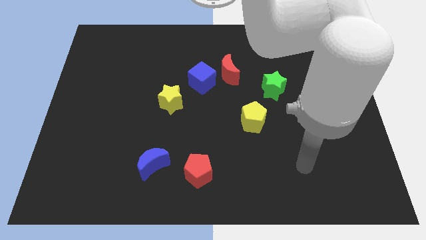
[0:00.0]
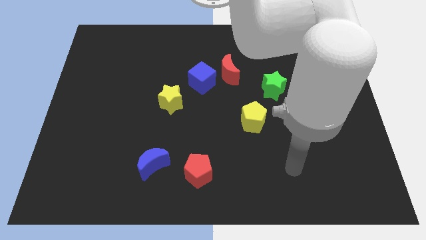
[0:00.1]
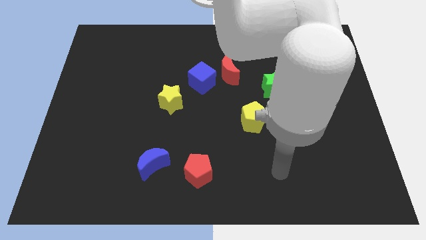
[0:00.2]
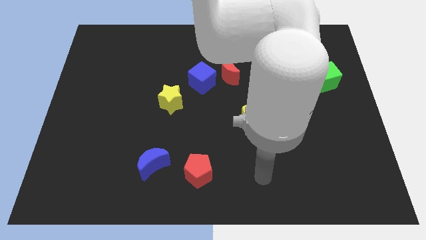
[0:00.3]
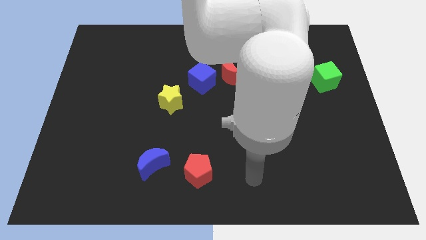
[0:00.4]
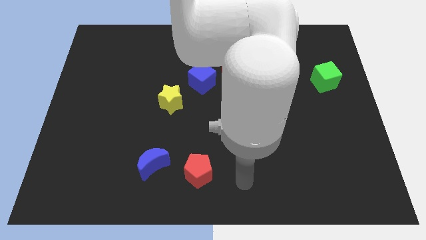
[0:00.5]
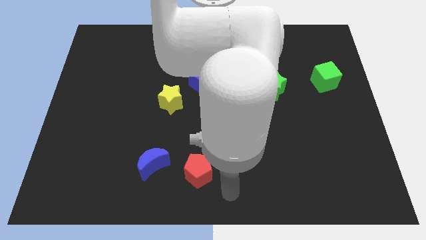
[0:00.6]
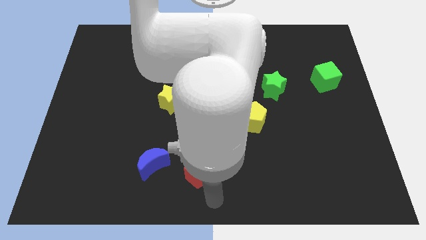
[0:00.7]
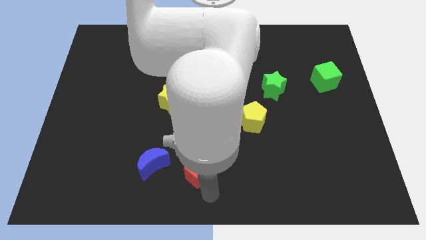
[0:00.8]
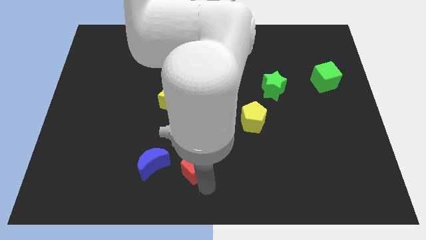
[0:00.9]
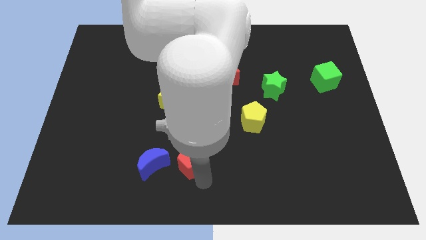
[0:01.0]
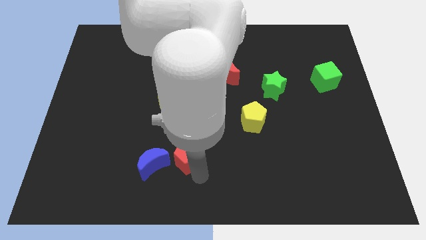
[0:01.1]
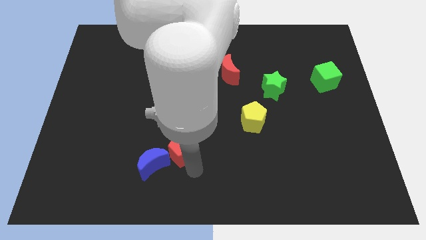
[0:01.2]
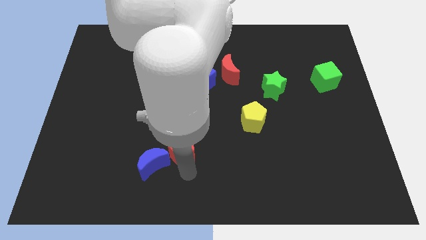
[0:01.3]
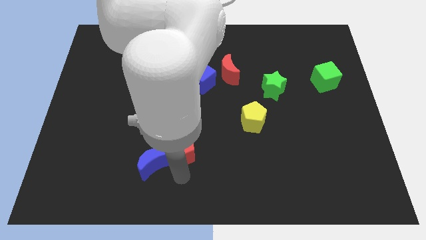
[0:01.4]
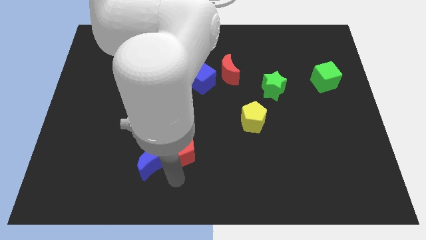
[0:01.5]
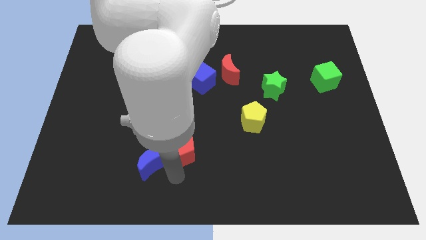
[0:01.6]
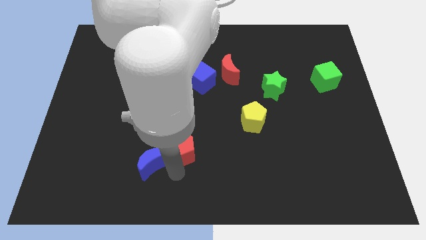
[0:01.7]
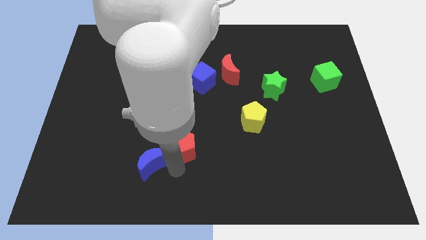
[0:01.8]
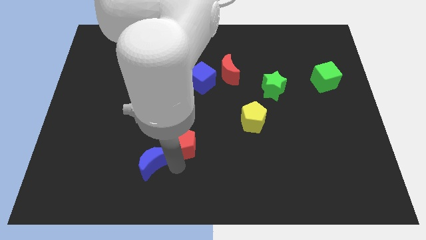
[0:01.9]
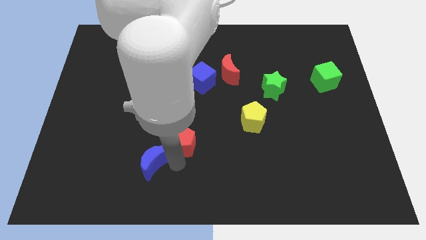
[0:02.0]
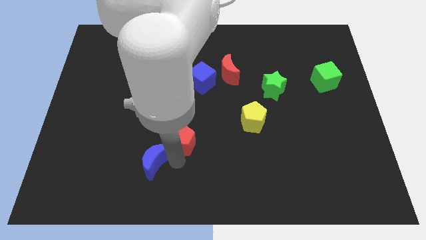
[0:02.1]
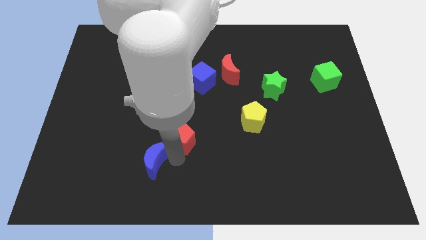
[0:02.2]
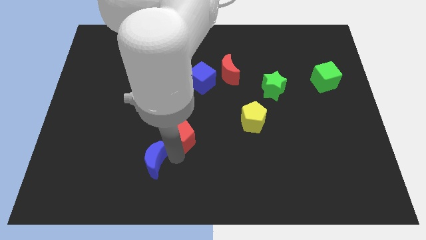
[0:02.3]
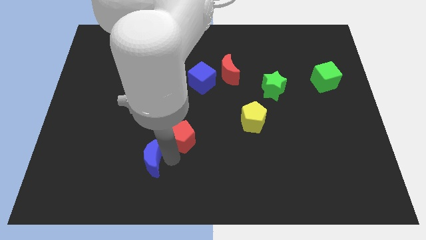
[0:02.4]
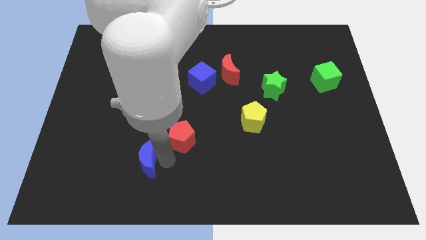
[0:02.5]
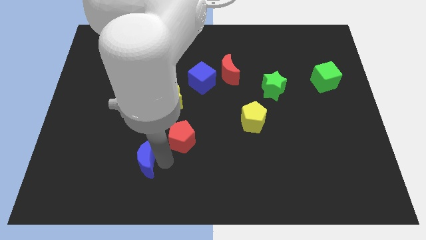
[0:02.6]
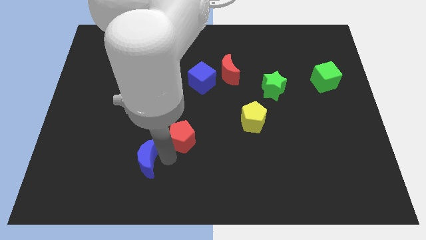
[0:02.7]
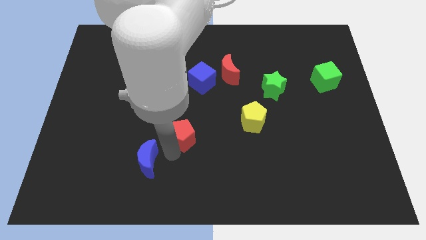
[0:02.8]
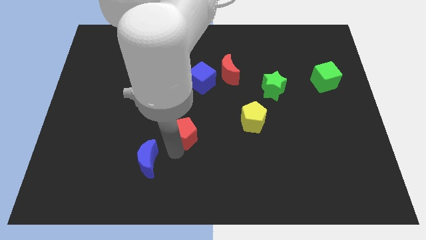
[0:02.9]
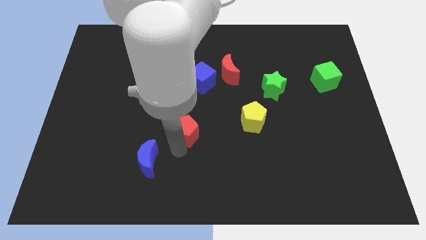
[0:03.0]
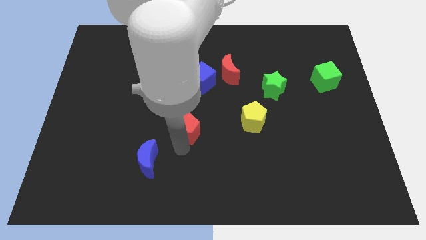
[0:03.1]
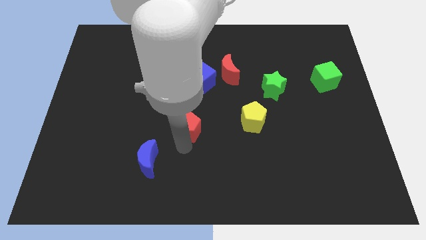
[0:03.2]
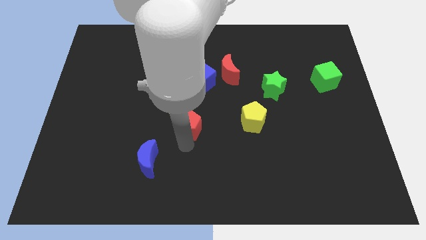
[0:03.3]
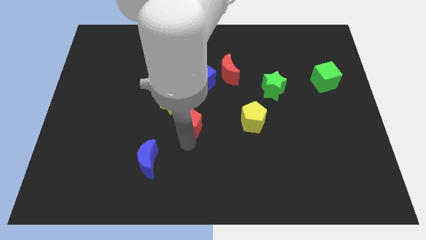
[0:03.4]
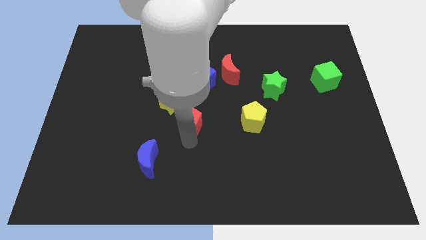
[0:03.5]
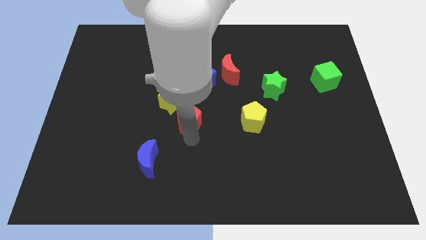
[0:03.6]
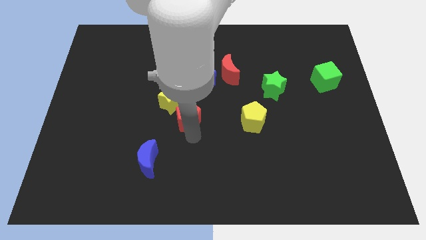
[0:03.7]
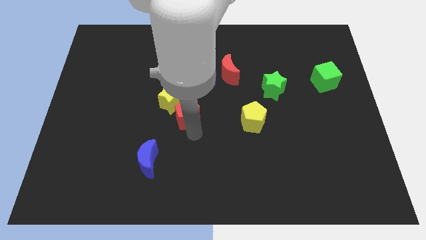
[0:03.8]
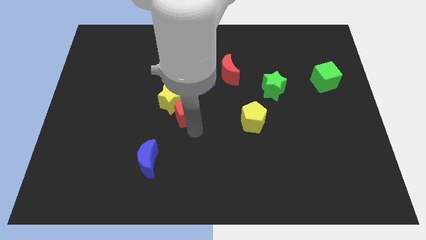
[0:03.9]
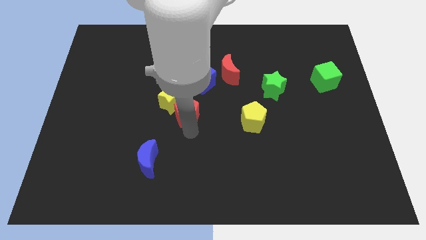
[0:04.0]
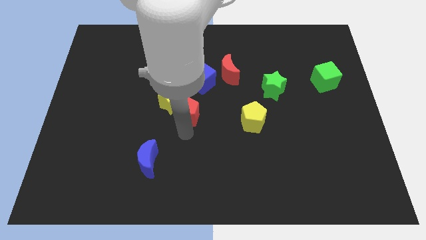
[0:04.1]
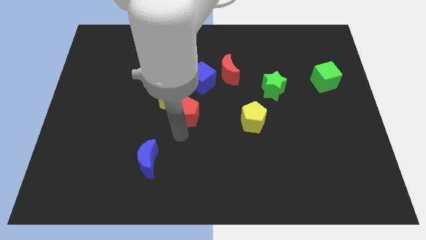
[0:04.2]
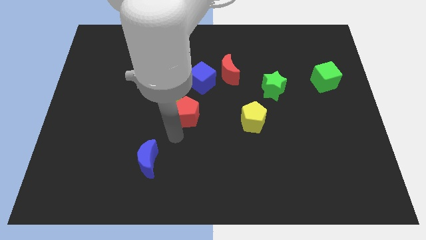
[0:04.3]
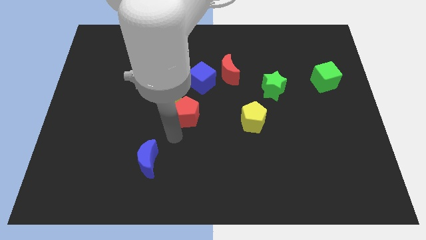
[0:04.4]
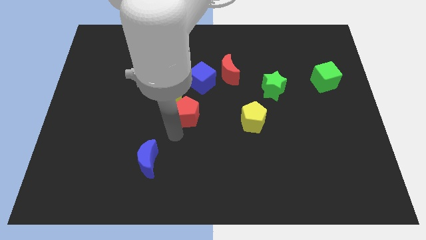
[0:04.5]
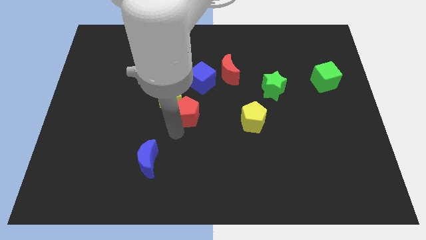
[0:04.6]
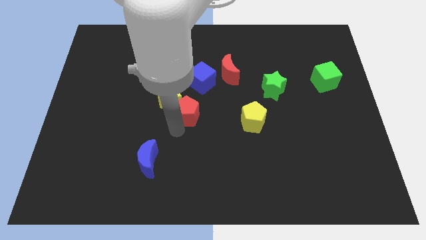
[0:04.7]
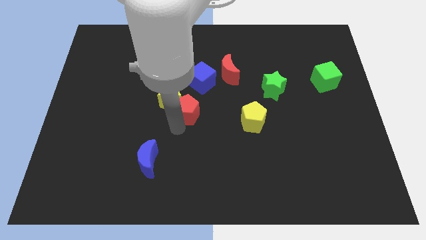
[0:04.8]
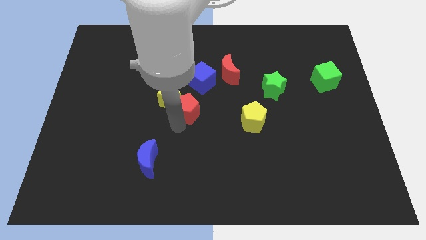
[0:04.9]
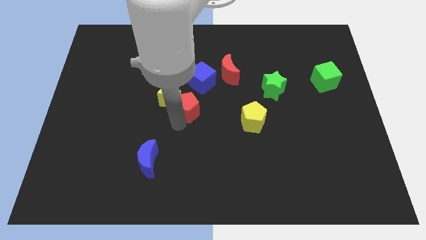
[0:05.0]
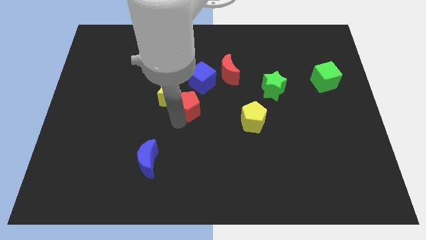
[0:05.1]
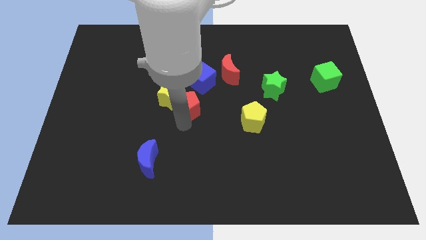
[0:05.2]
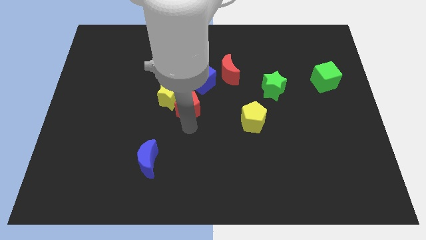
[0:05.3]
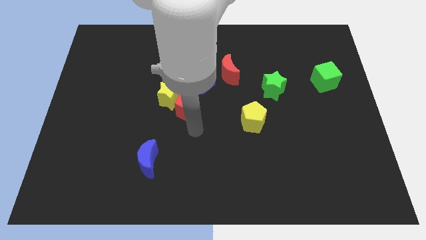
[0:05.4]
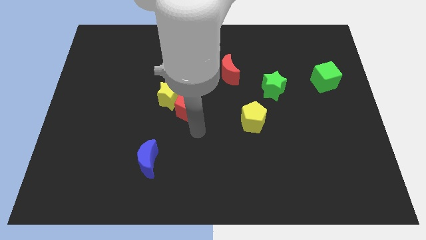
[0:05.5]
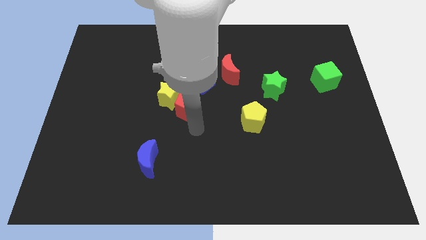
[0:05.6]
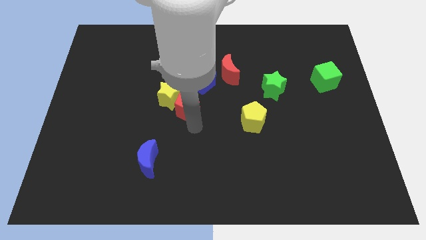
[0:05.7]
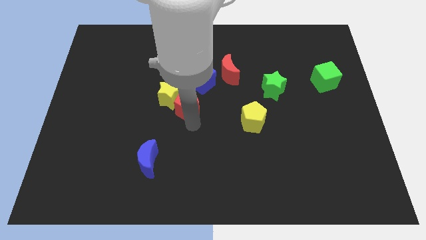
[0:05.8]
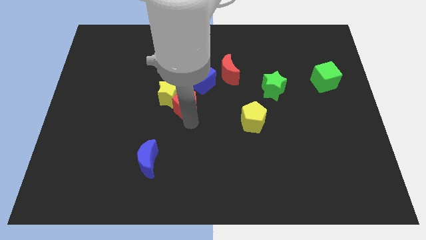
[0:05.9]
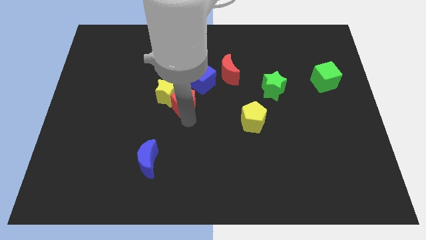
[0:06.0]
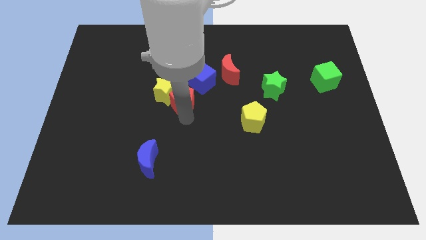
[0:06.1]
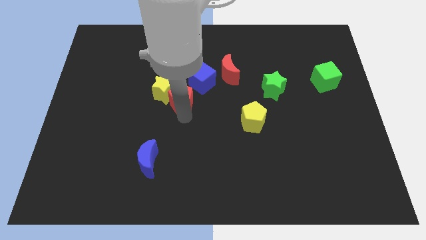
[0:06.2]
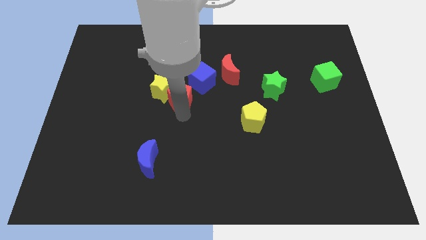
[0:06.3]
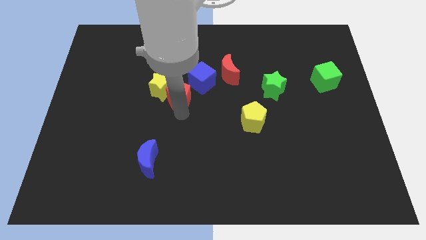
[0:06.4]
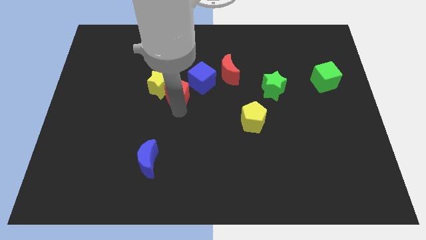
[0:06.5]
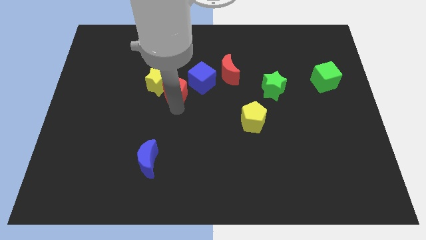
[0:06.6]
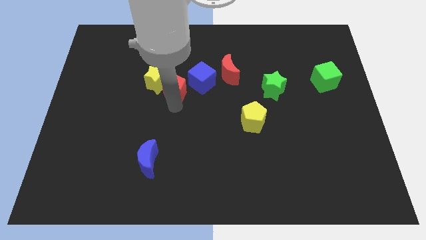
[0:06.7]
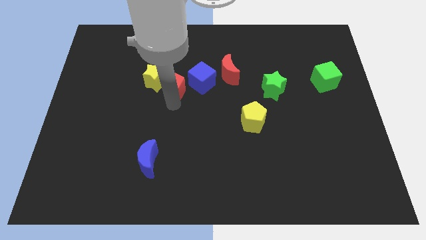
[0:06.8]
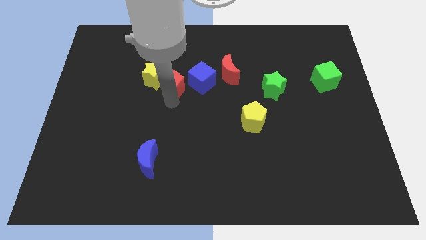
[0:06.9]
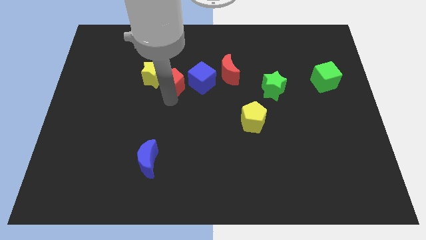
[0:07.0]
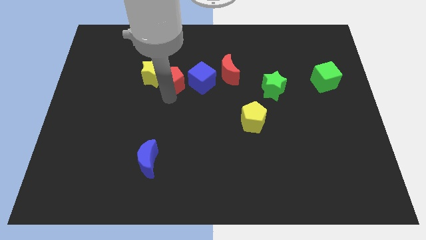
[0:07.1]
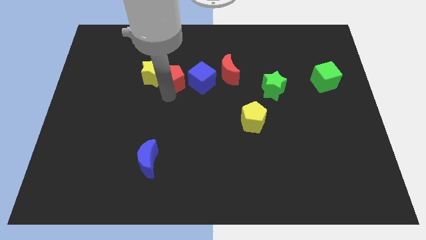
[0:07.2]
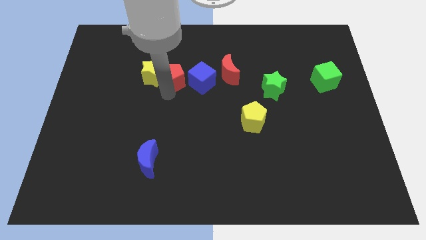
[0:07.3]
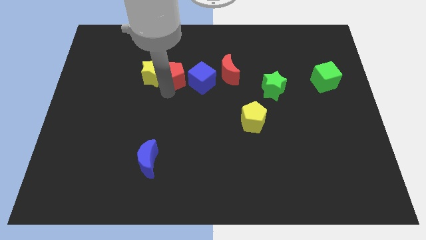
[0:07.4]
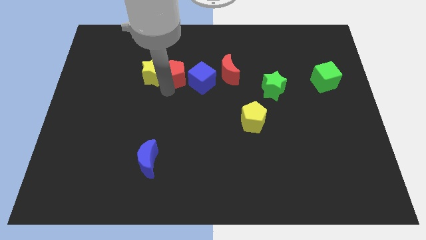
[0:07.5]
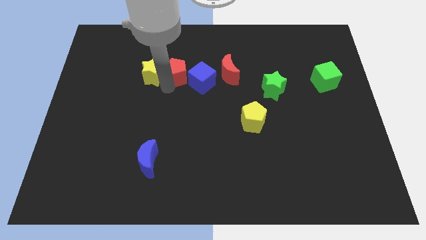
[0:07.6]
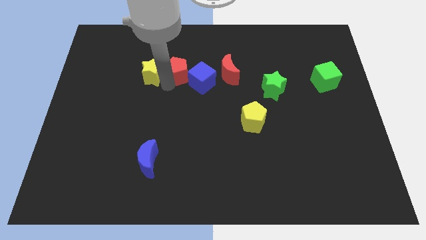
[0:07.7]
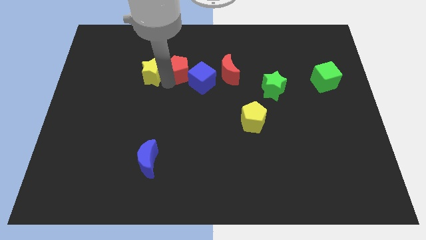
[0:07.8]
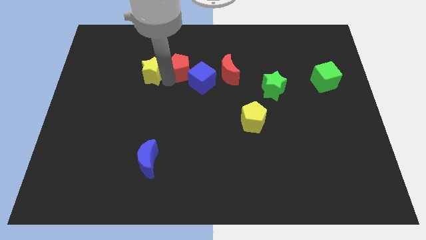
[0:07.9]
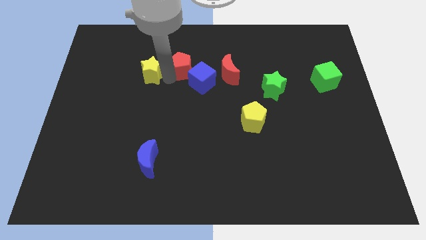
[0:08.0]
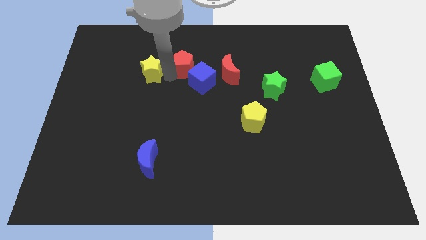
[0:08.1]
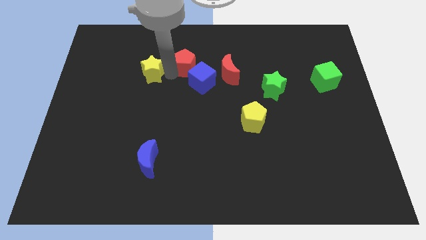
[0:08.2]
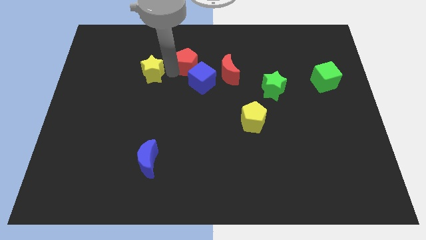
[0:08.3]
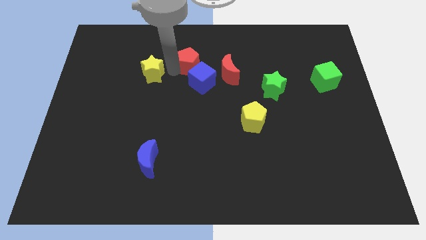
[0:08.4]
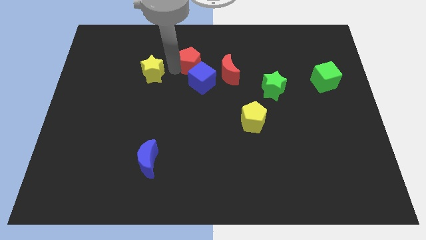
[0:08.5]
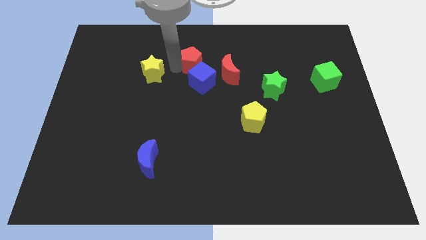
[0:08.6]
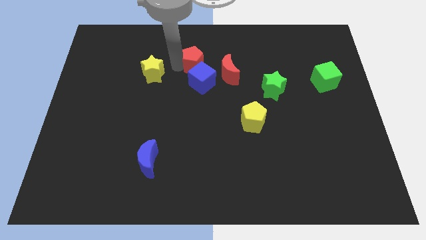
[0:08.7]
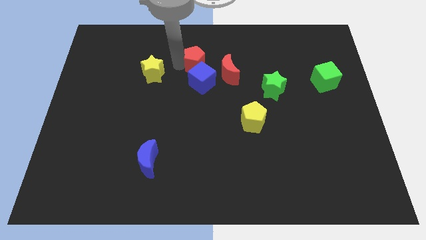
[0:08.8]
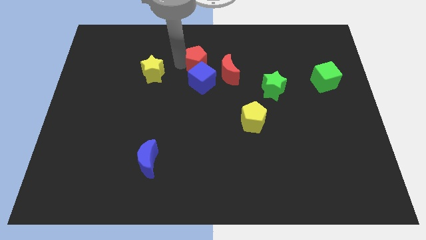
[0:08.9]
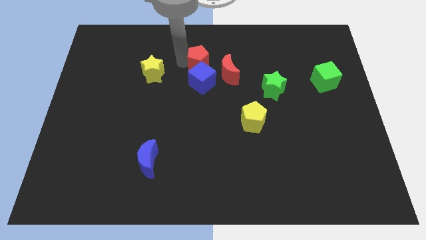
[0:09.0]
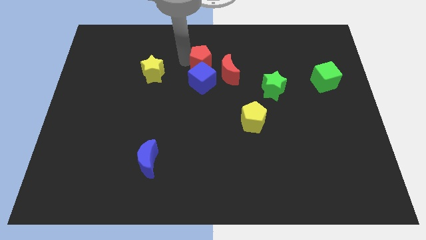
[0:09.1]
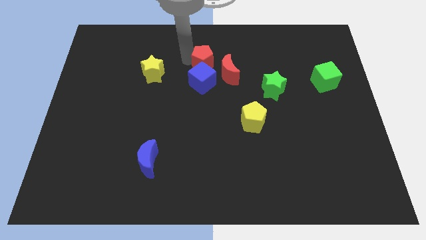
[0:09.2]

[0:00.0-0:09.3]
slide the red pentagon diagonally up and to the right of the blue cube
